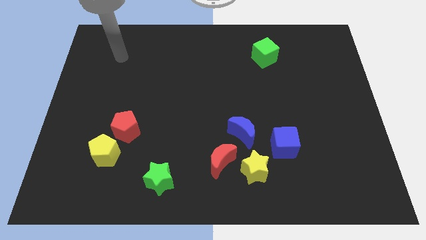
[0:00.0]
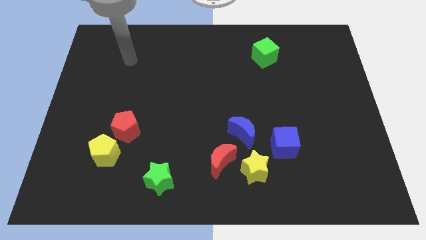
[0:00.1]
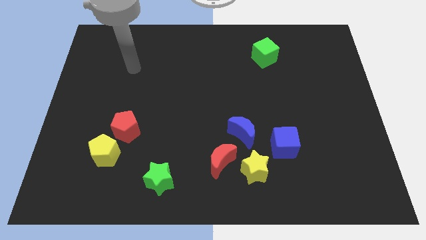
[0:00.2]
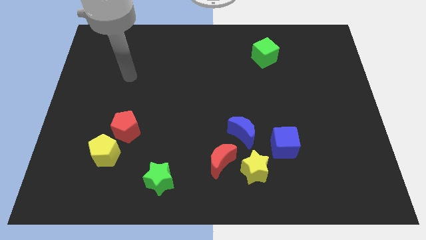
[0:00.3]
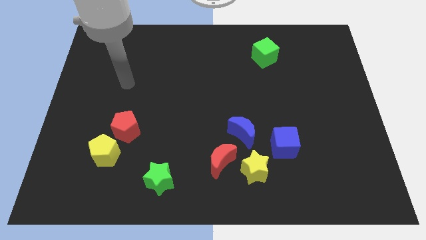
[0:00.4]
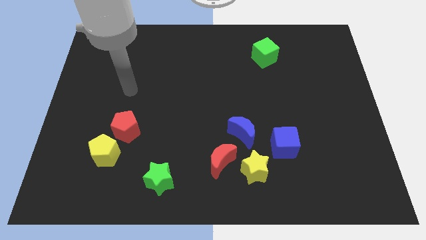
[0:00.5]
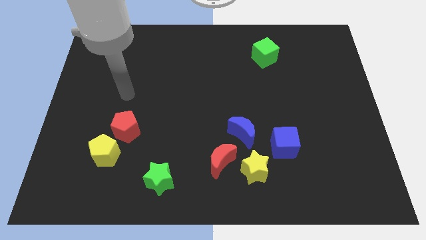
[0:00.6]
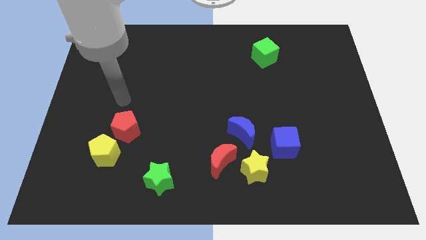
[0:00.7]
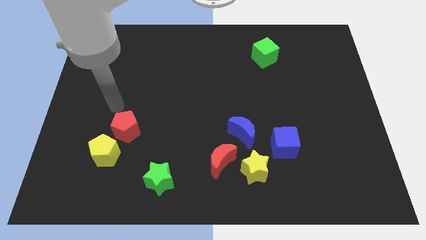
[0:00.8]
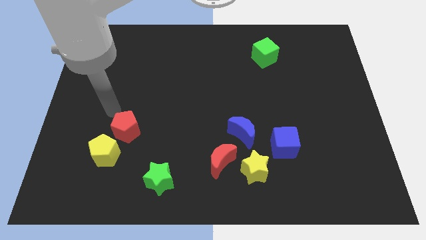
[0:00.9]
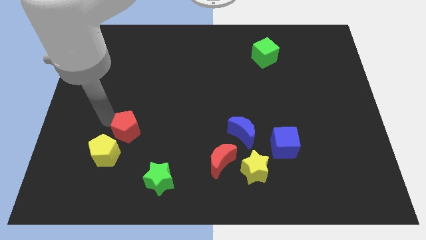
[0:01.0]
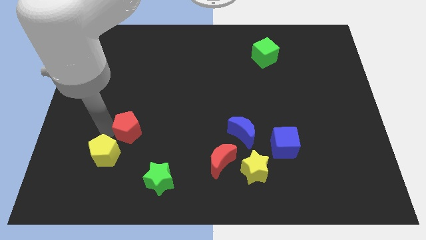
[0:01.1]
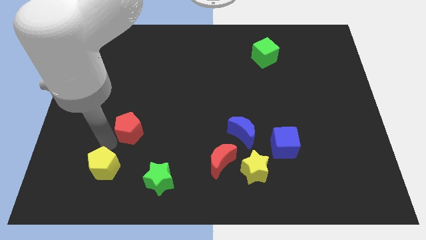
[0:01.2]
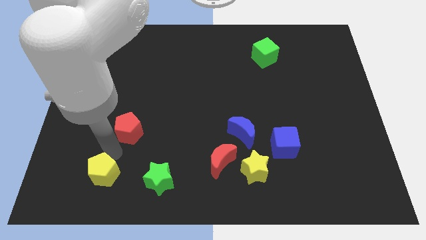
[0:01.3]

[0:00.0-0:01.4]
pull the red pentagon apart from the yellow pentagon

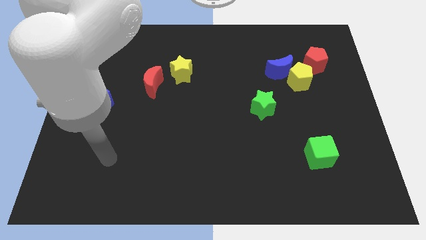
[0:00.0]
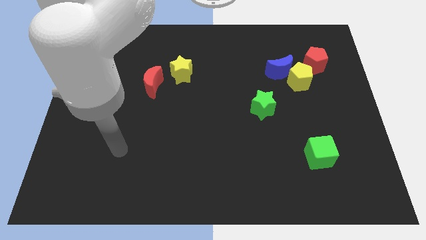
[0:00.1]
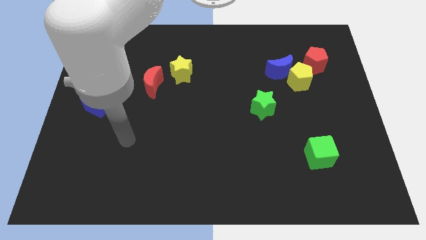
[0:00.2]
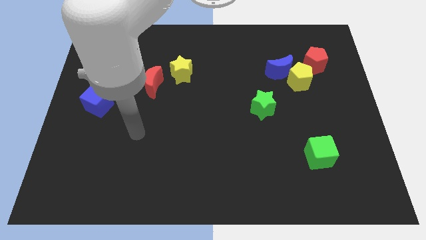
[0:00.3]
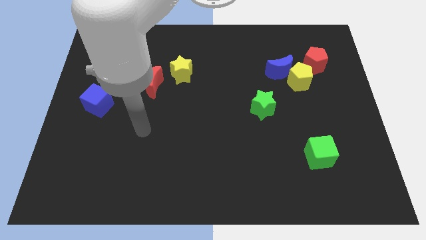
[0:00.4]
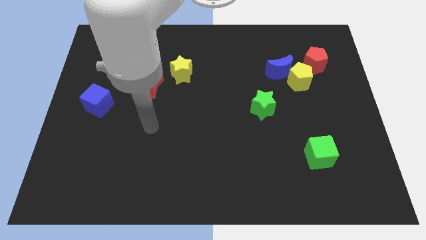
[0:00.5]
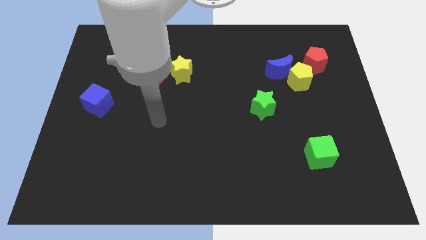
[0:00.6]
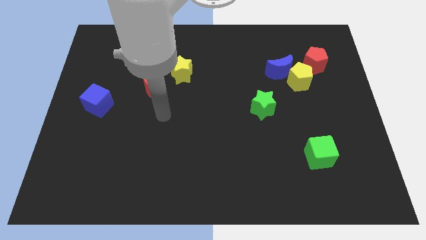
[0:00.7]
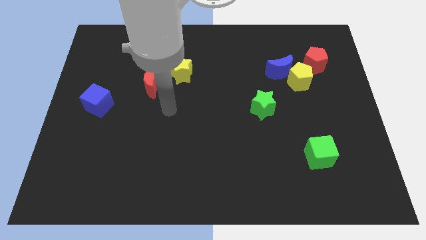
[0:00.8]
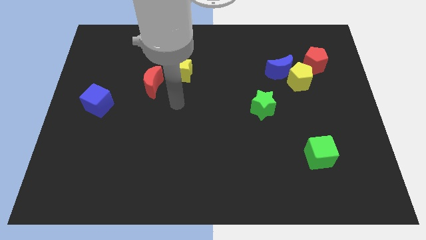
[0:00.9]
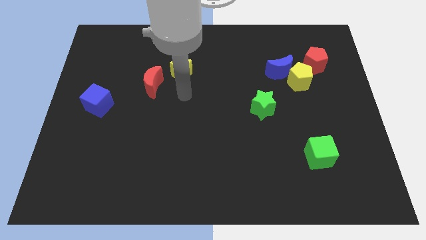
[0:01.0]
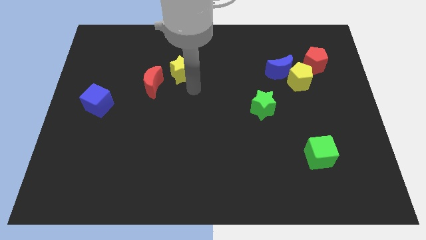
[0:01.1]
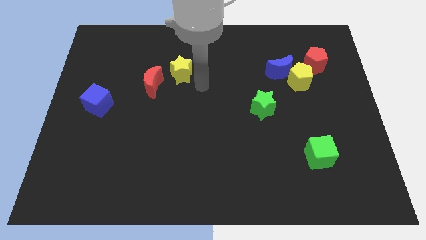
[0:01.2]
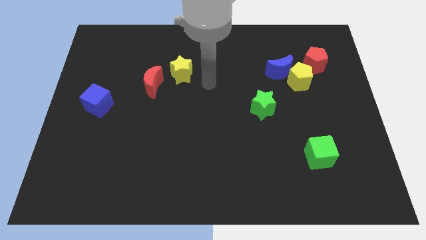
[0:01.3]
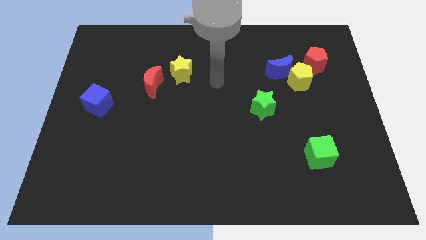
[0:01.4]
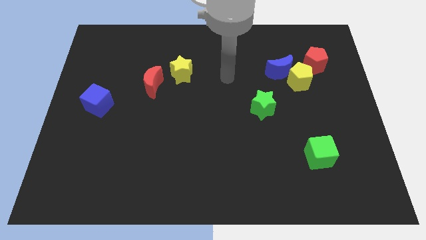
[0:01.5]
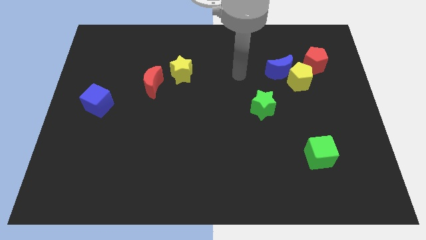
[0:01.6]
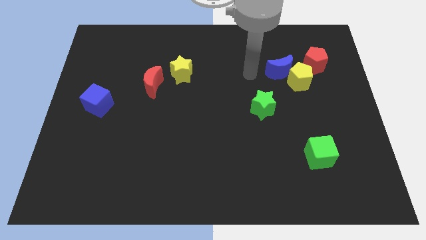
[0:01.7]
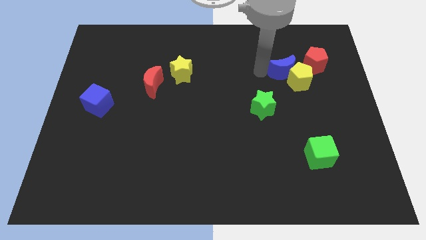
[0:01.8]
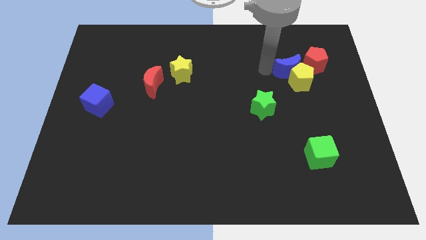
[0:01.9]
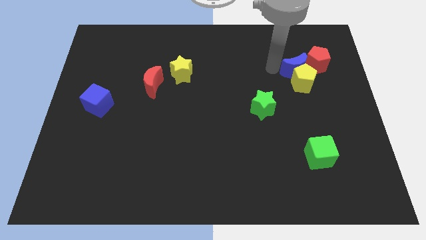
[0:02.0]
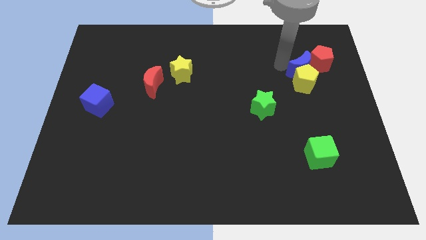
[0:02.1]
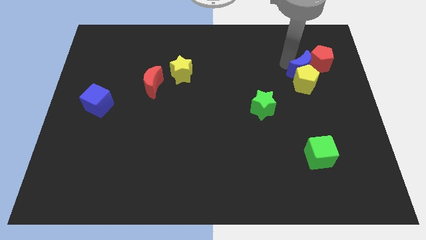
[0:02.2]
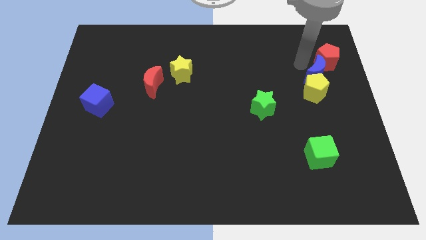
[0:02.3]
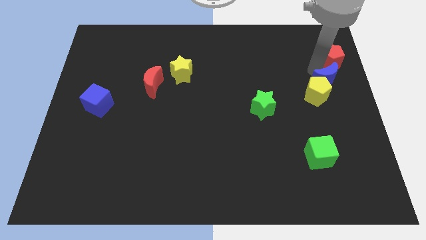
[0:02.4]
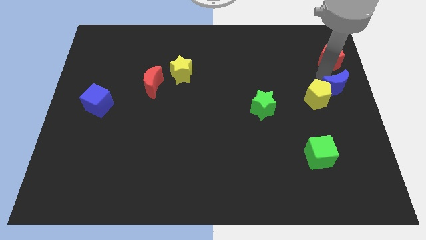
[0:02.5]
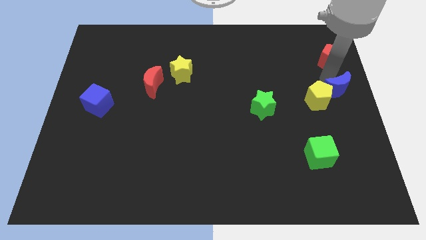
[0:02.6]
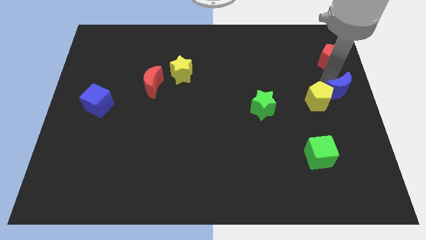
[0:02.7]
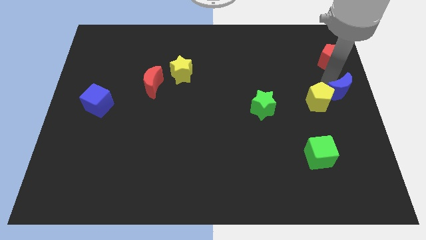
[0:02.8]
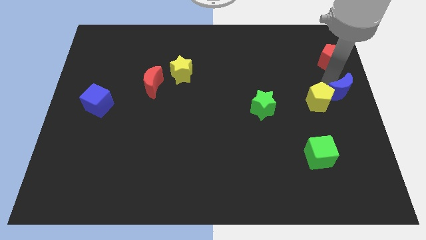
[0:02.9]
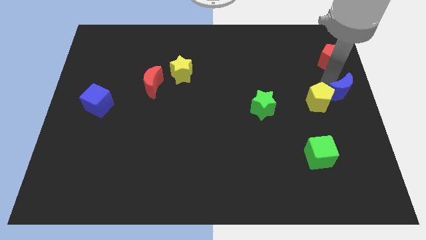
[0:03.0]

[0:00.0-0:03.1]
move the yellow pentagon away from the blue moon and red pentagon

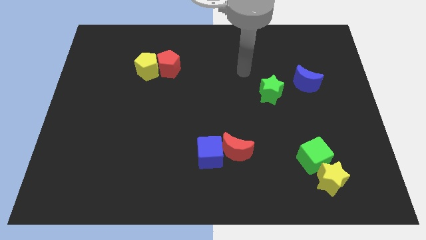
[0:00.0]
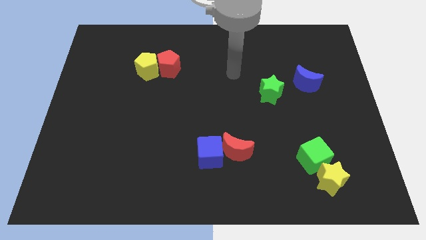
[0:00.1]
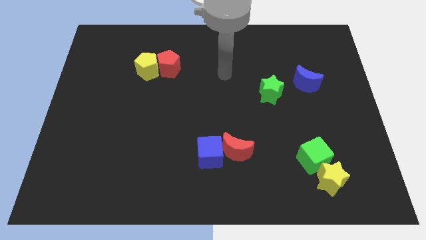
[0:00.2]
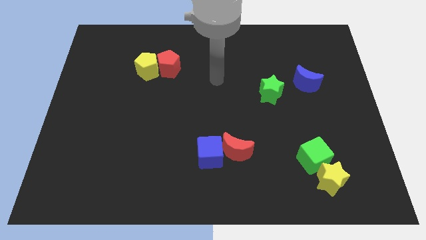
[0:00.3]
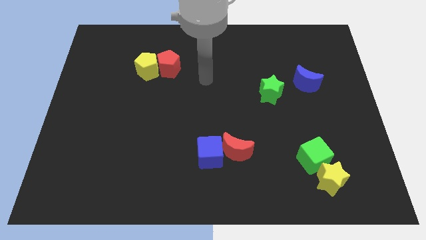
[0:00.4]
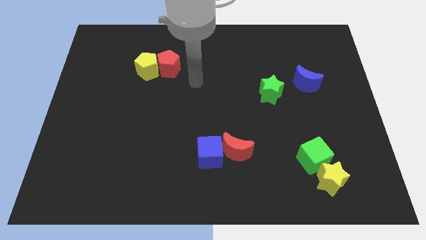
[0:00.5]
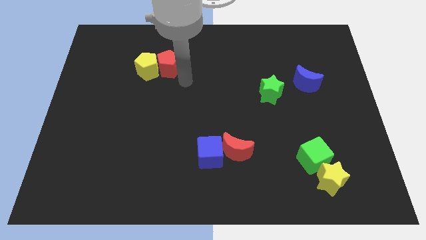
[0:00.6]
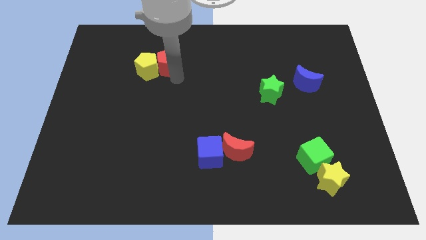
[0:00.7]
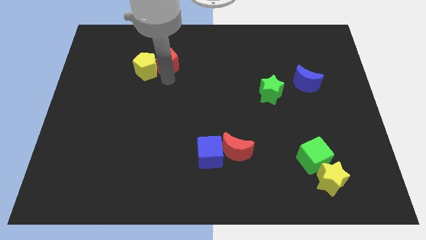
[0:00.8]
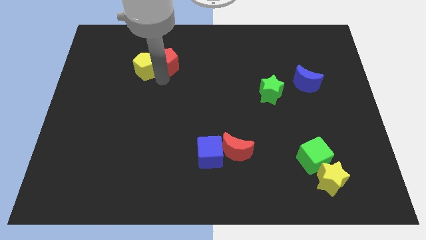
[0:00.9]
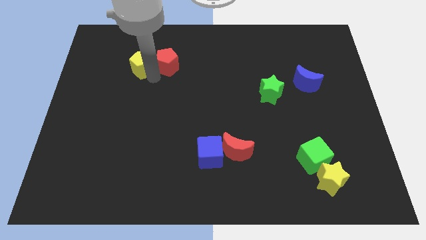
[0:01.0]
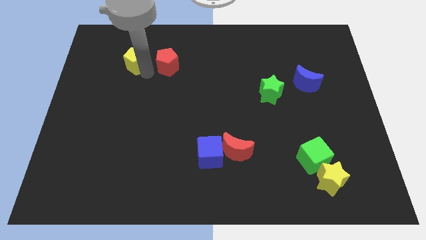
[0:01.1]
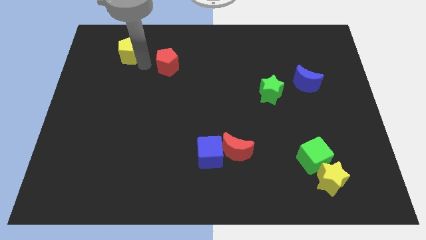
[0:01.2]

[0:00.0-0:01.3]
separate the red pentagon from the yellow pentagon

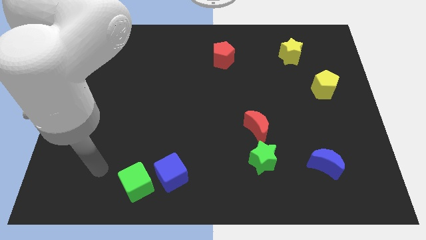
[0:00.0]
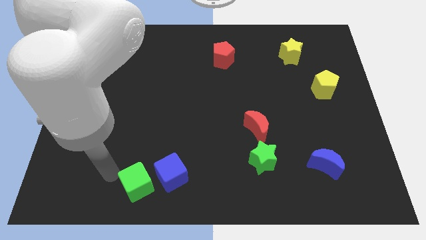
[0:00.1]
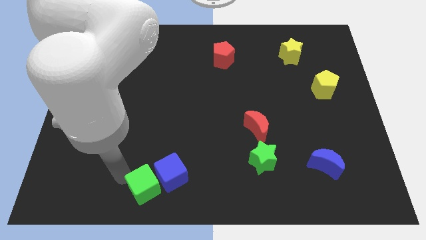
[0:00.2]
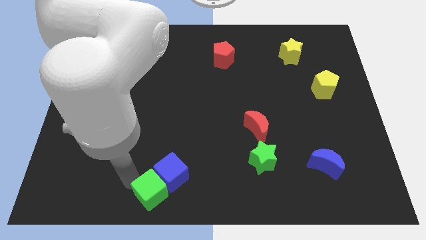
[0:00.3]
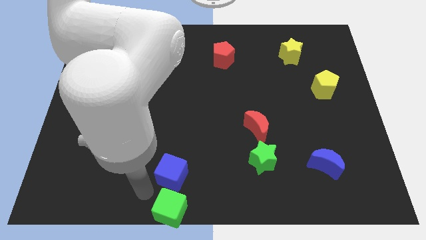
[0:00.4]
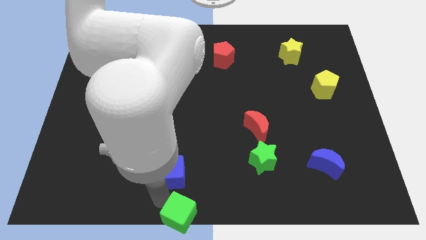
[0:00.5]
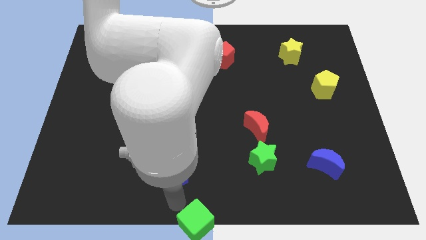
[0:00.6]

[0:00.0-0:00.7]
pull the blue cube apart from the green cube

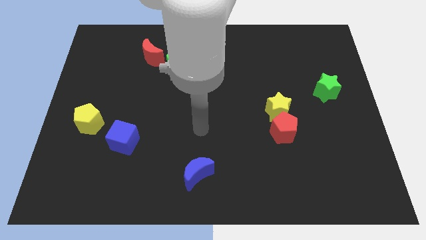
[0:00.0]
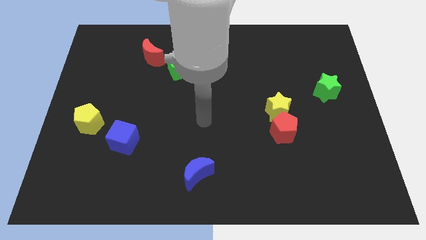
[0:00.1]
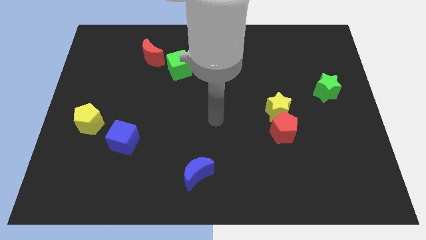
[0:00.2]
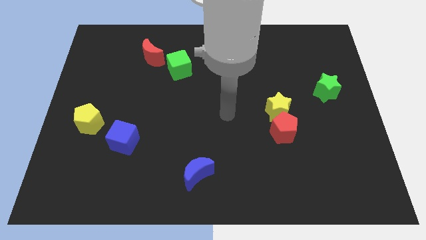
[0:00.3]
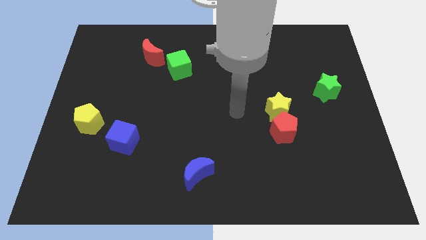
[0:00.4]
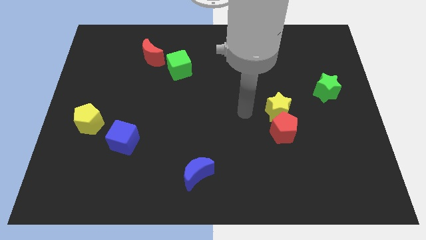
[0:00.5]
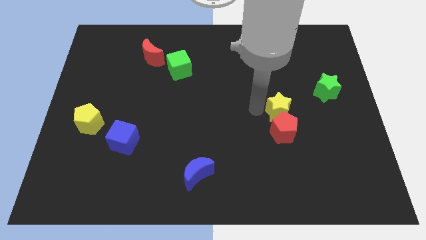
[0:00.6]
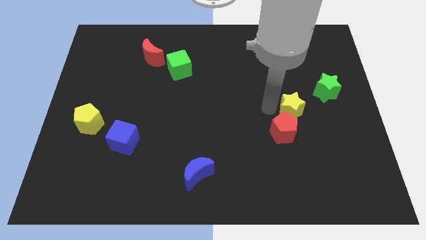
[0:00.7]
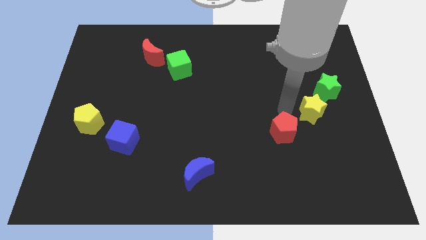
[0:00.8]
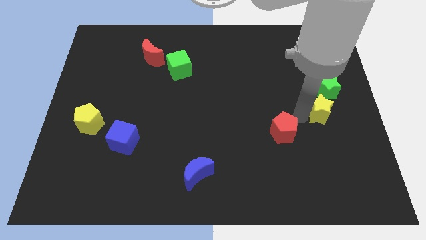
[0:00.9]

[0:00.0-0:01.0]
separate the red pentagon from the yellow star

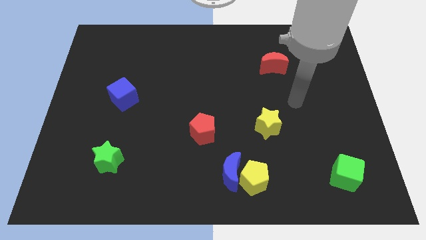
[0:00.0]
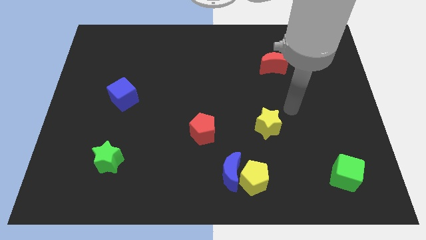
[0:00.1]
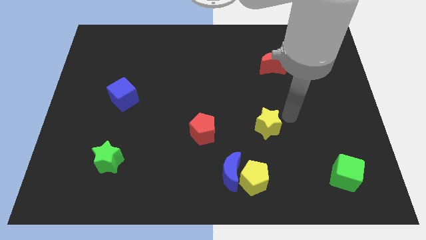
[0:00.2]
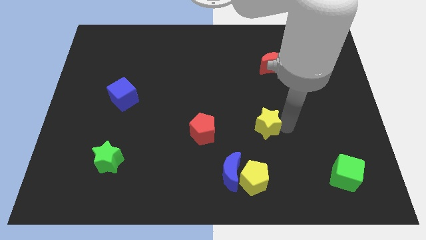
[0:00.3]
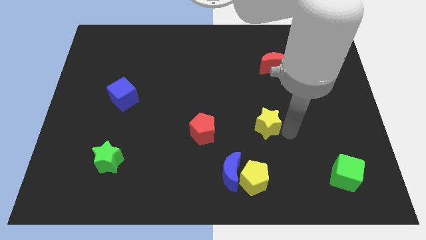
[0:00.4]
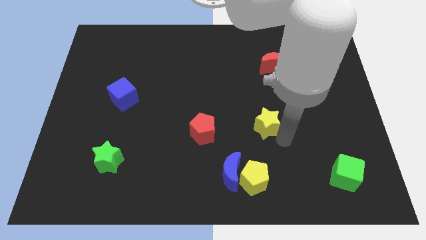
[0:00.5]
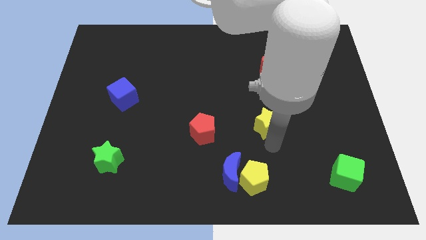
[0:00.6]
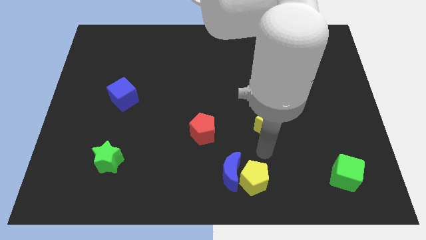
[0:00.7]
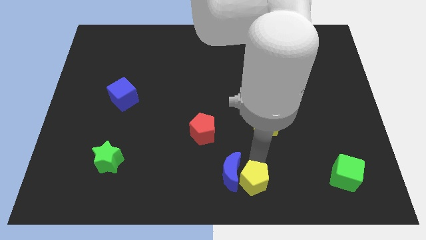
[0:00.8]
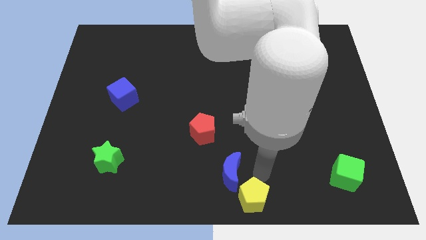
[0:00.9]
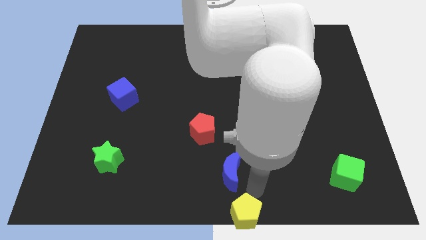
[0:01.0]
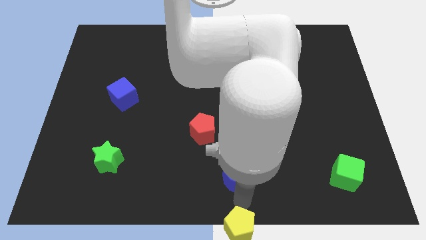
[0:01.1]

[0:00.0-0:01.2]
pull the blue moon apart from the yellow pentagon

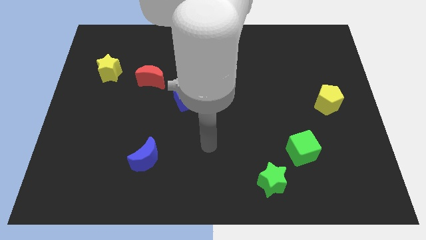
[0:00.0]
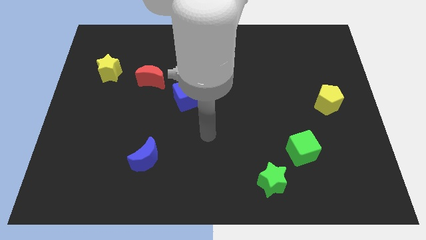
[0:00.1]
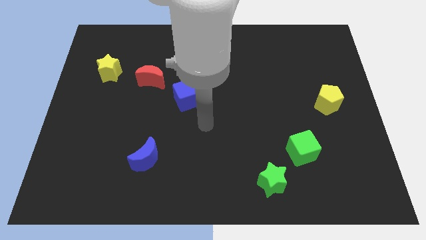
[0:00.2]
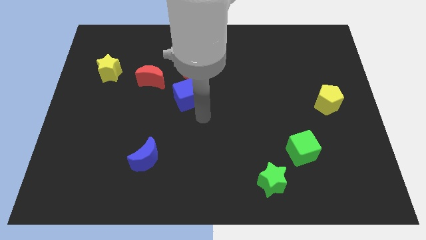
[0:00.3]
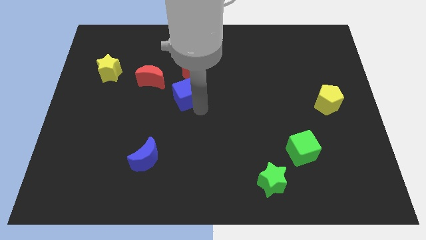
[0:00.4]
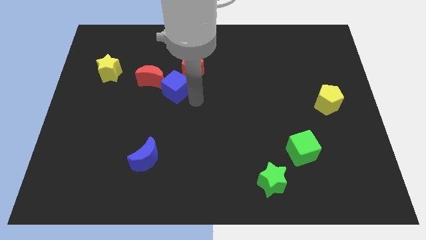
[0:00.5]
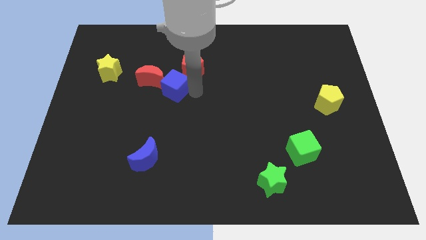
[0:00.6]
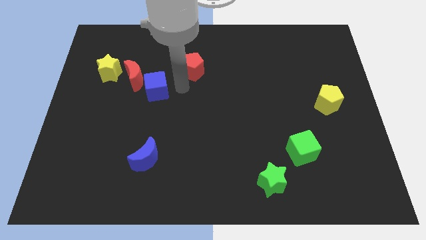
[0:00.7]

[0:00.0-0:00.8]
move the red pentagon away from the blue cube
